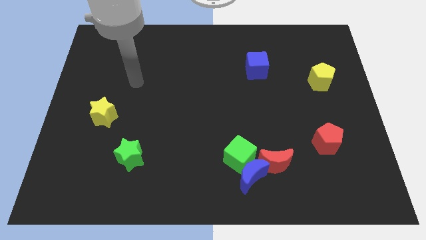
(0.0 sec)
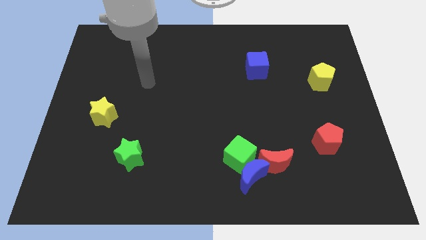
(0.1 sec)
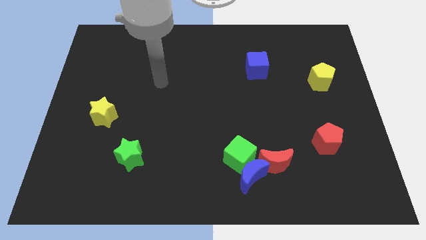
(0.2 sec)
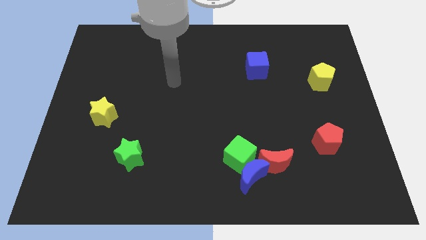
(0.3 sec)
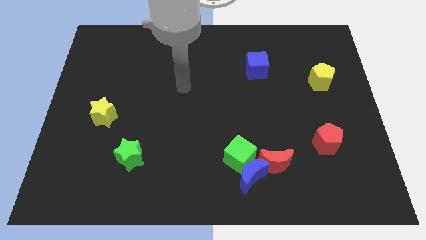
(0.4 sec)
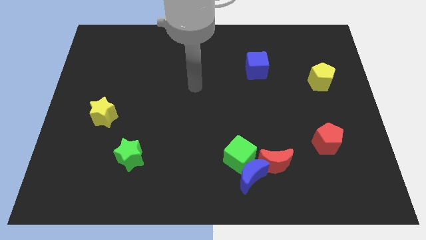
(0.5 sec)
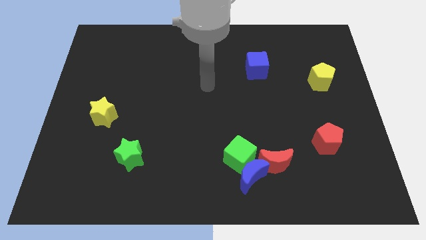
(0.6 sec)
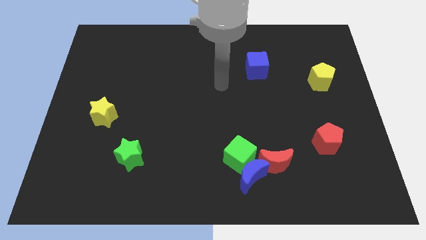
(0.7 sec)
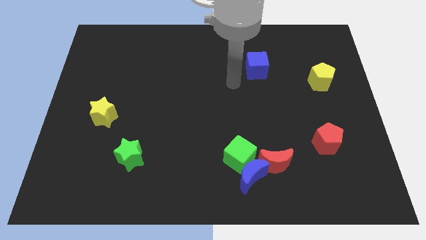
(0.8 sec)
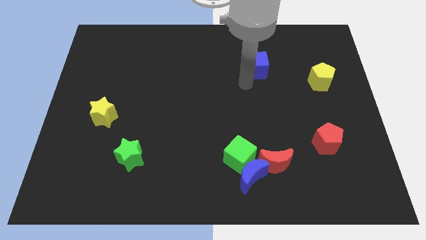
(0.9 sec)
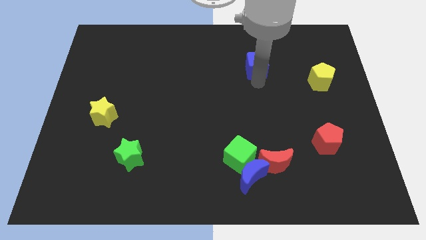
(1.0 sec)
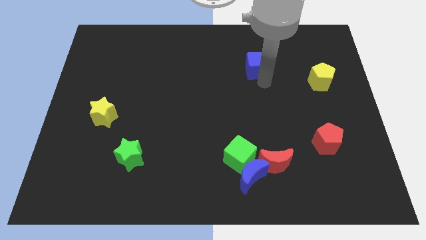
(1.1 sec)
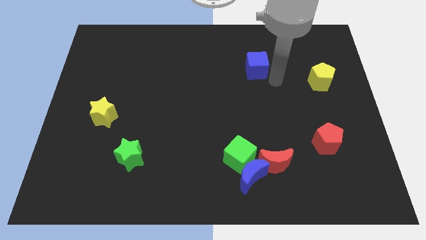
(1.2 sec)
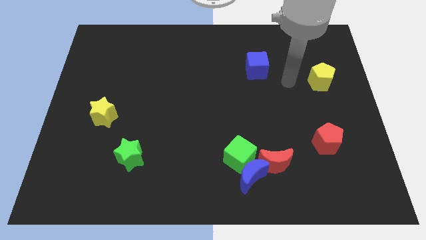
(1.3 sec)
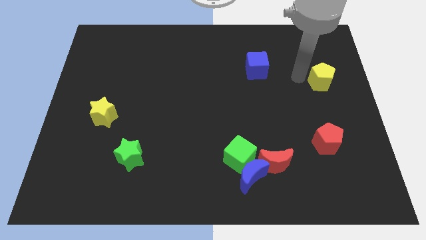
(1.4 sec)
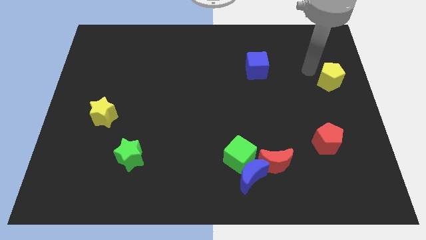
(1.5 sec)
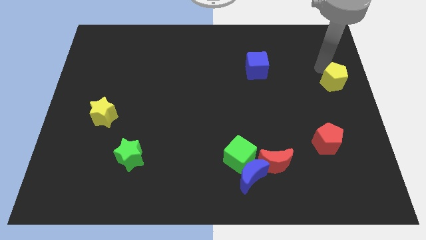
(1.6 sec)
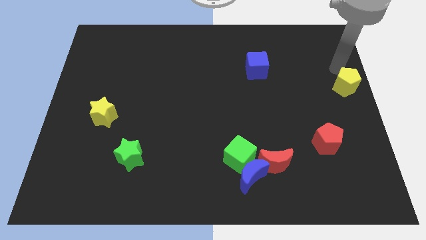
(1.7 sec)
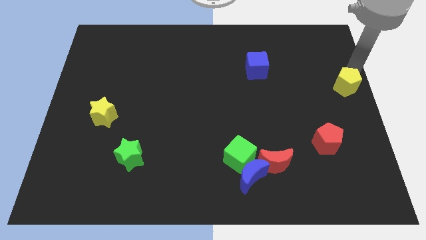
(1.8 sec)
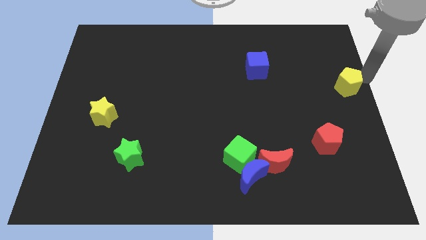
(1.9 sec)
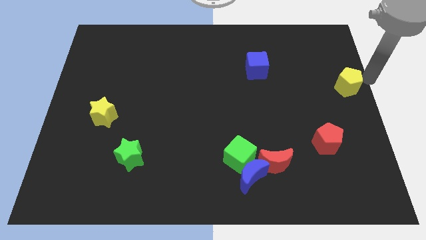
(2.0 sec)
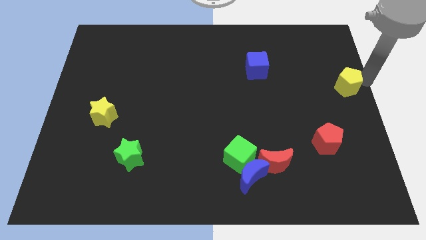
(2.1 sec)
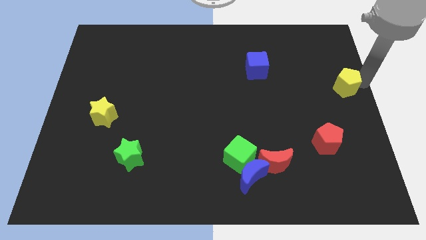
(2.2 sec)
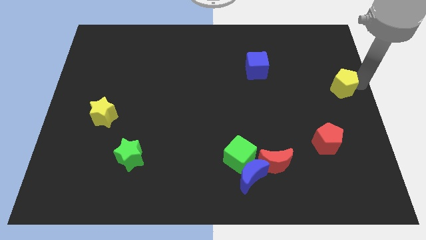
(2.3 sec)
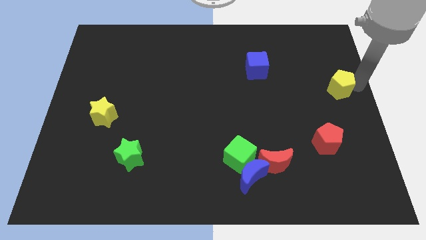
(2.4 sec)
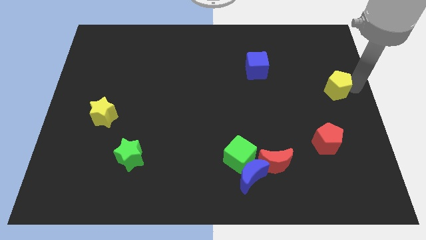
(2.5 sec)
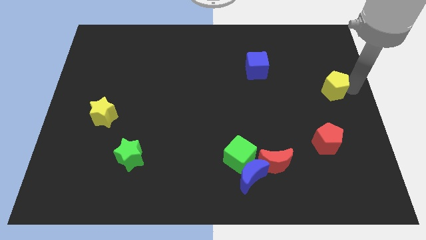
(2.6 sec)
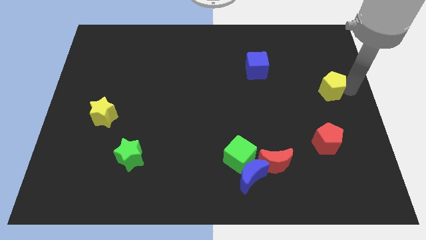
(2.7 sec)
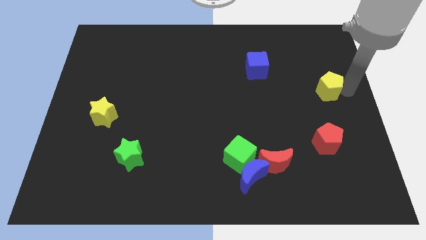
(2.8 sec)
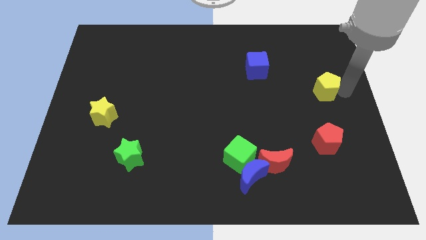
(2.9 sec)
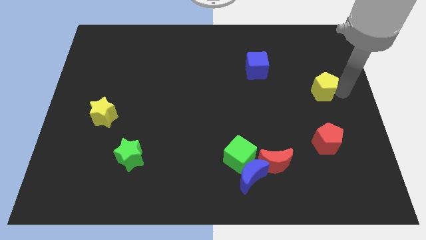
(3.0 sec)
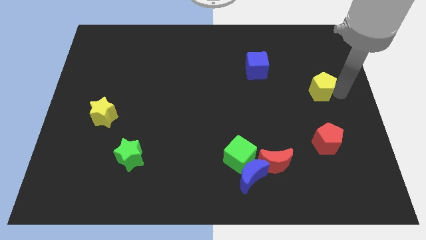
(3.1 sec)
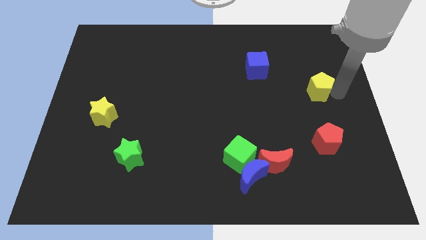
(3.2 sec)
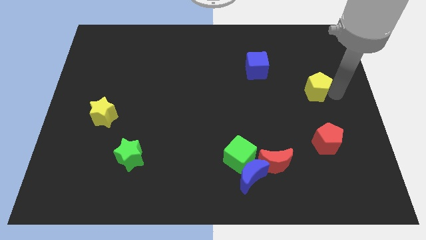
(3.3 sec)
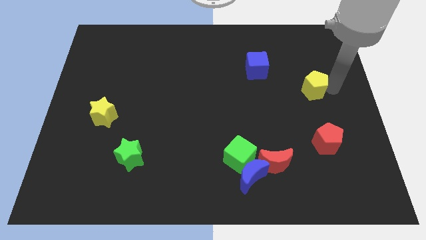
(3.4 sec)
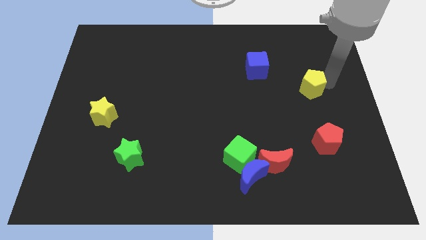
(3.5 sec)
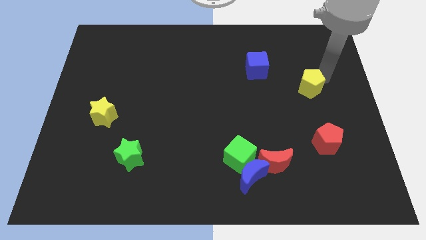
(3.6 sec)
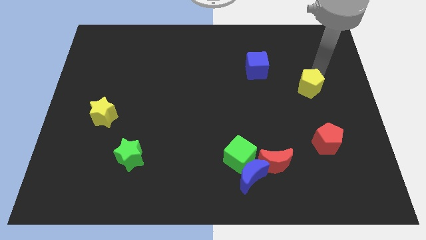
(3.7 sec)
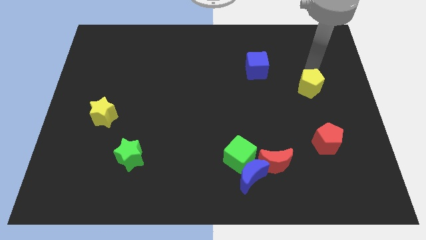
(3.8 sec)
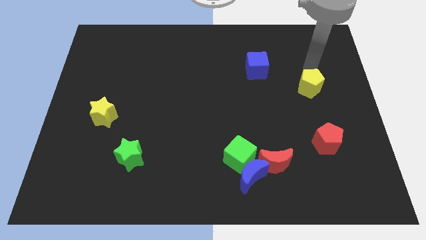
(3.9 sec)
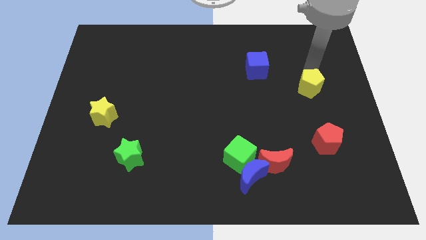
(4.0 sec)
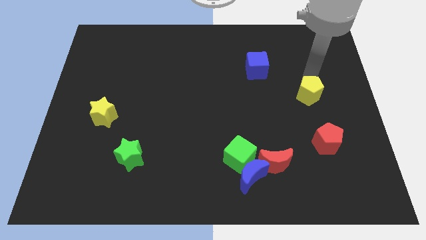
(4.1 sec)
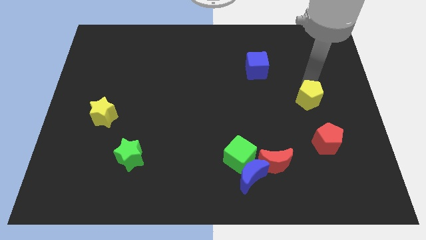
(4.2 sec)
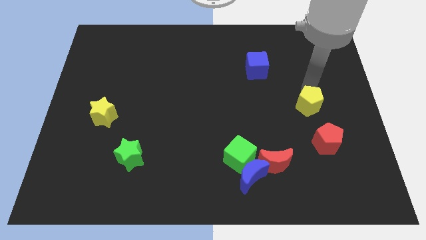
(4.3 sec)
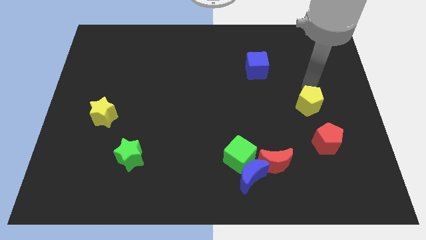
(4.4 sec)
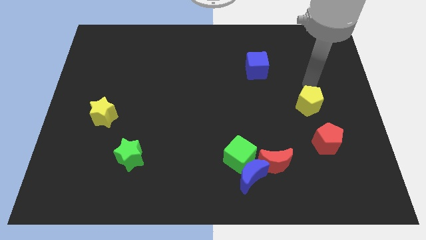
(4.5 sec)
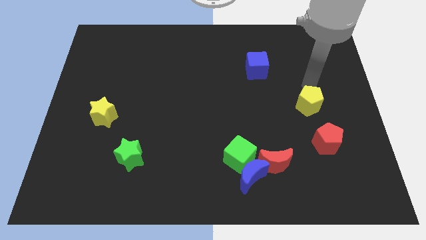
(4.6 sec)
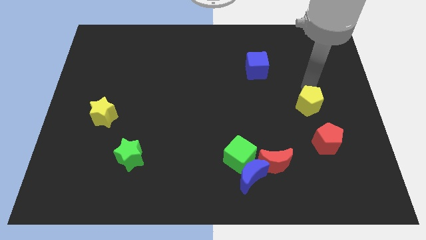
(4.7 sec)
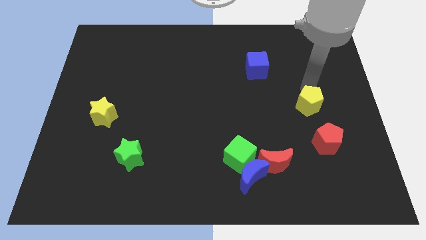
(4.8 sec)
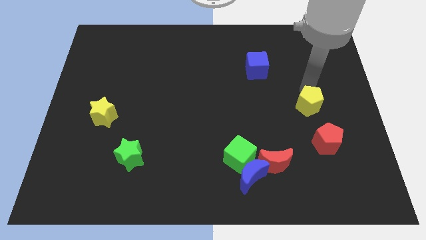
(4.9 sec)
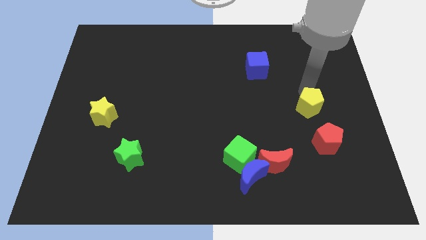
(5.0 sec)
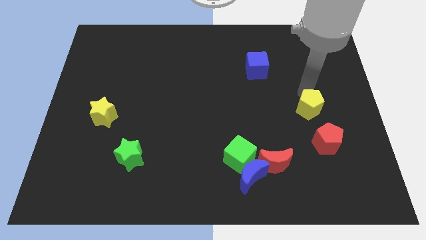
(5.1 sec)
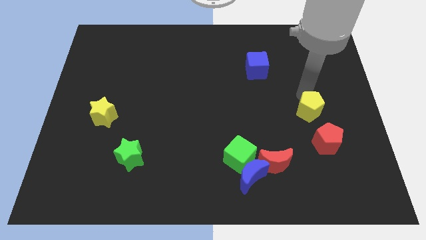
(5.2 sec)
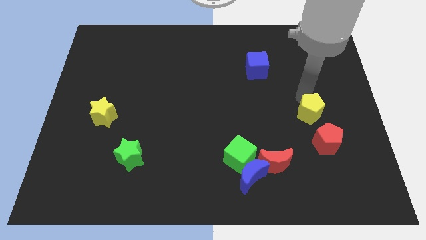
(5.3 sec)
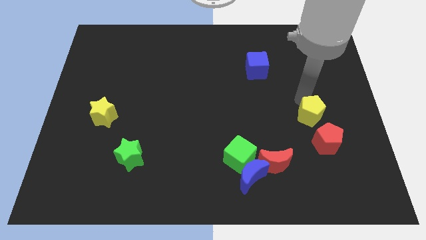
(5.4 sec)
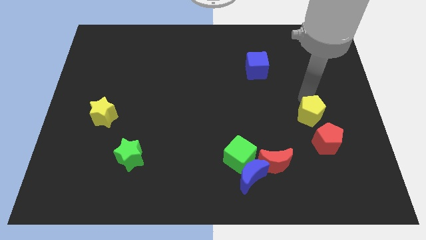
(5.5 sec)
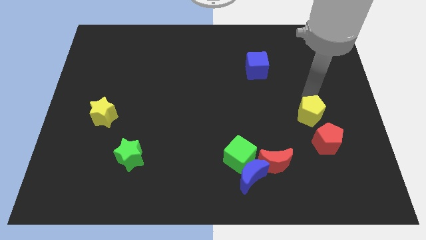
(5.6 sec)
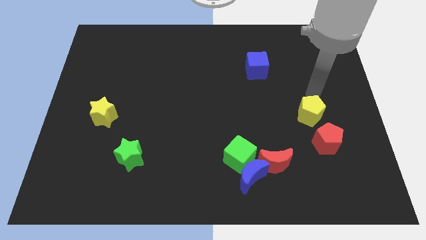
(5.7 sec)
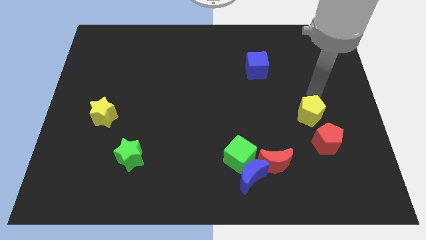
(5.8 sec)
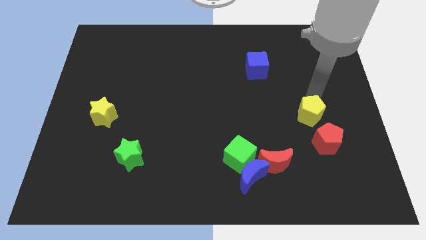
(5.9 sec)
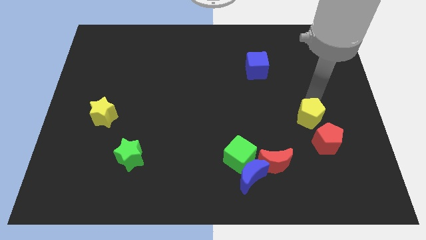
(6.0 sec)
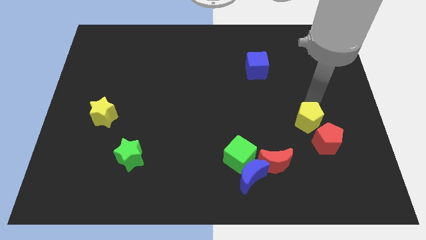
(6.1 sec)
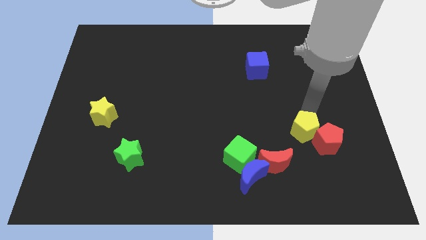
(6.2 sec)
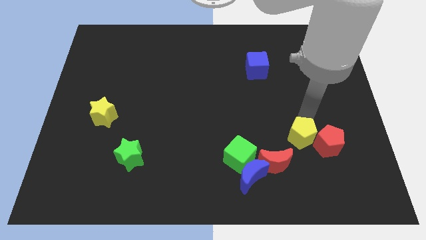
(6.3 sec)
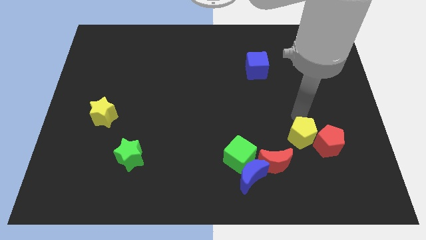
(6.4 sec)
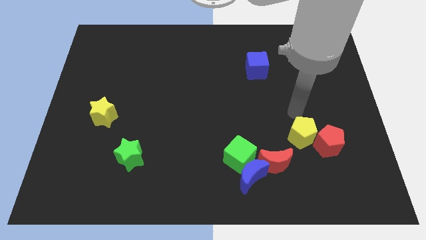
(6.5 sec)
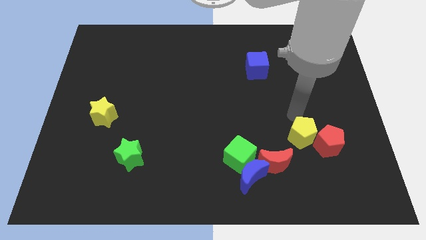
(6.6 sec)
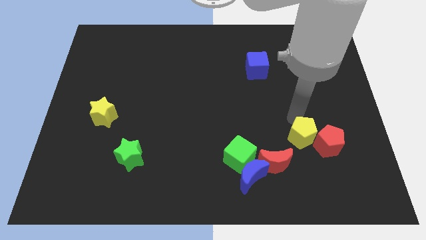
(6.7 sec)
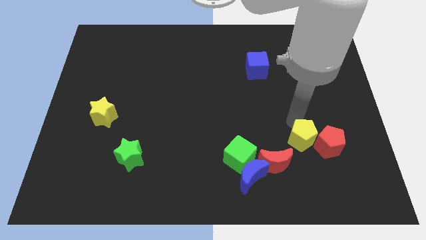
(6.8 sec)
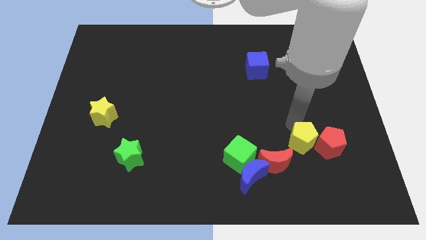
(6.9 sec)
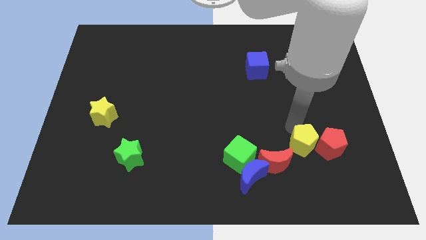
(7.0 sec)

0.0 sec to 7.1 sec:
move the yellow pentagon to the bottom left side of the red pentagon
